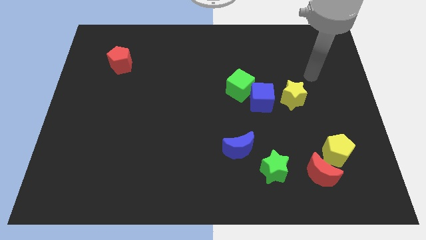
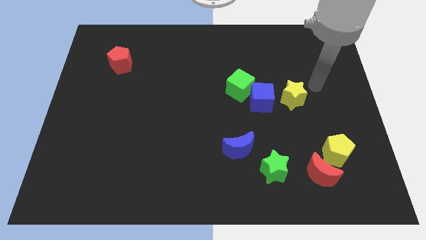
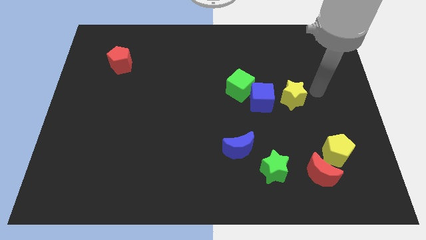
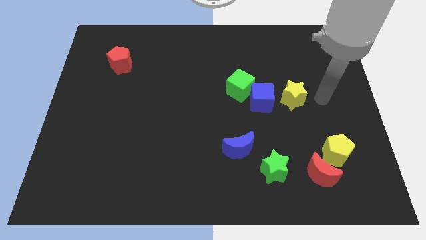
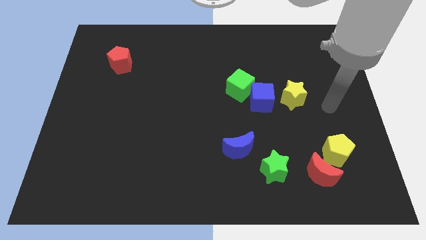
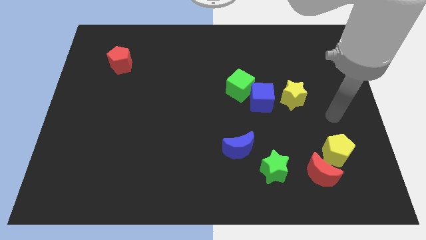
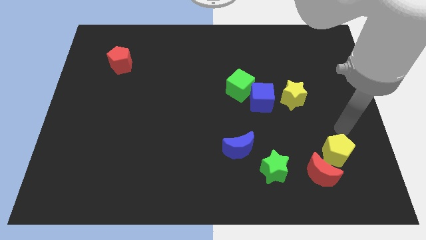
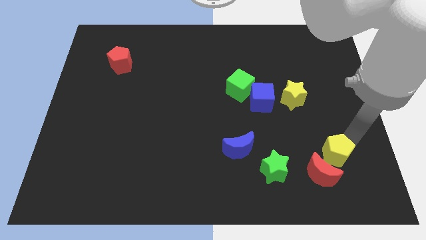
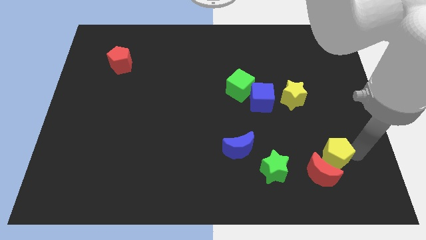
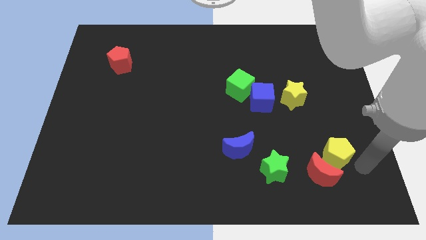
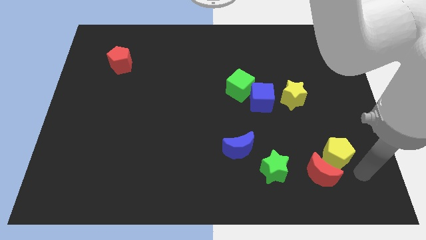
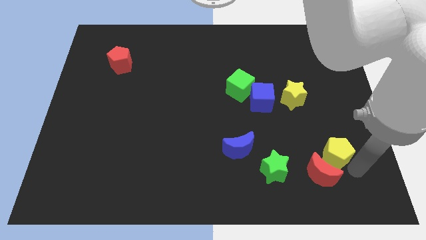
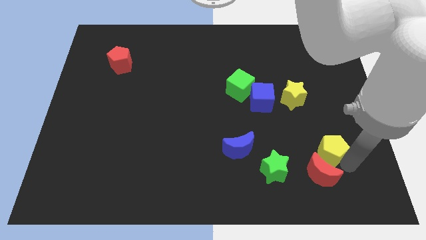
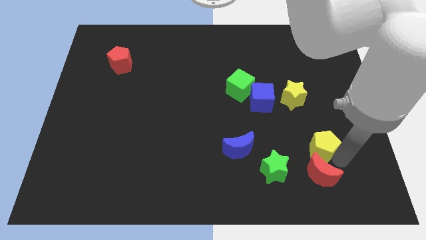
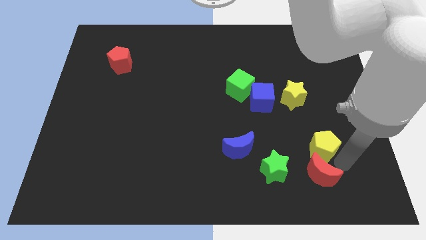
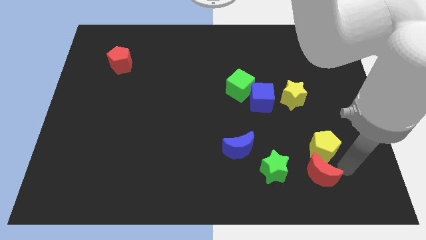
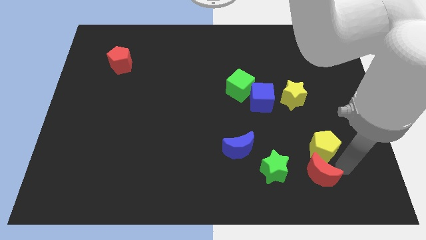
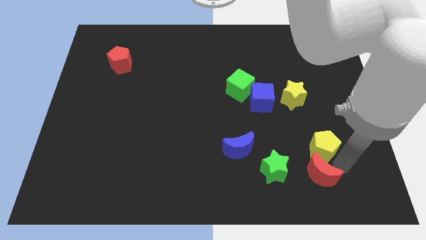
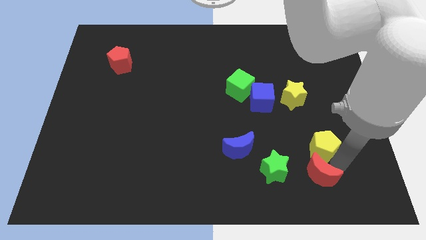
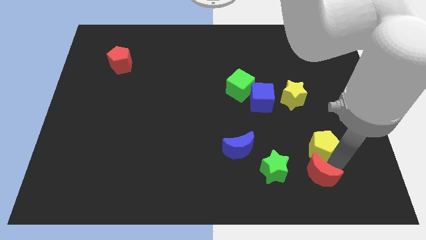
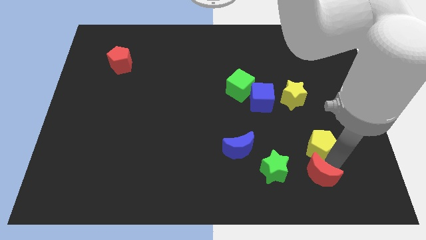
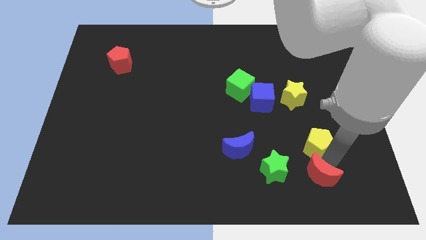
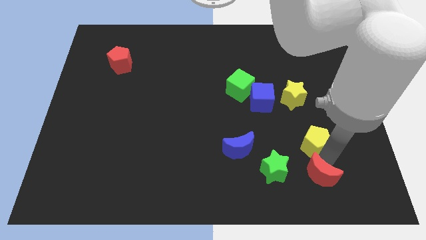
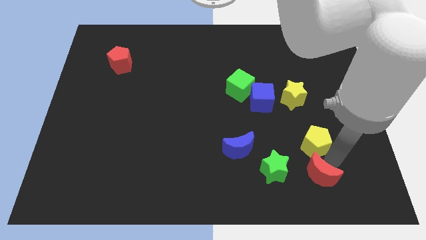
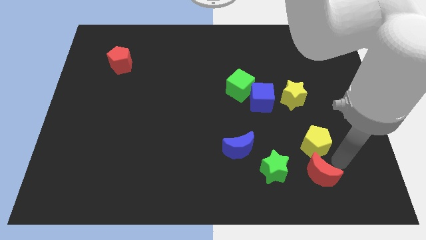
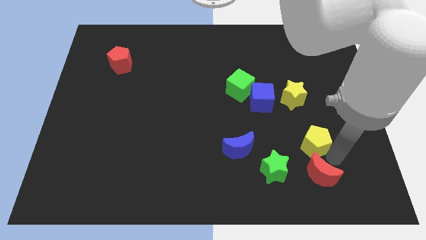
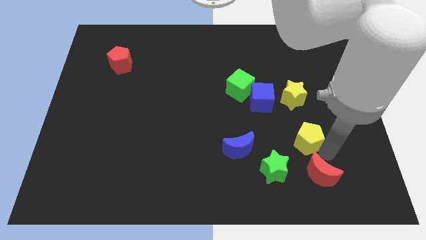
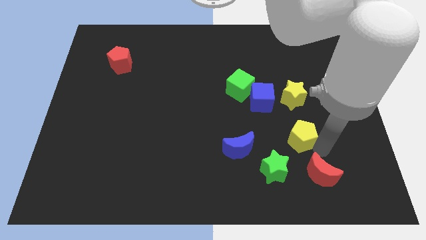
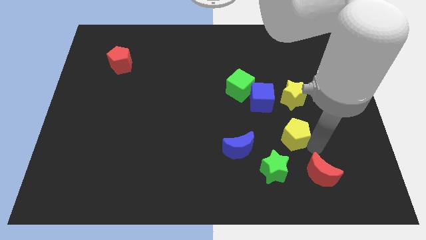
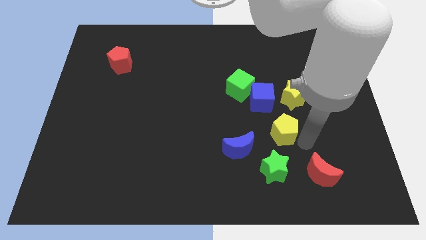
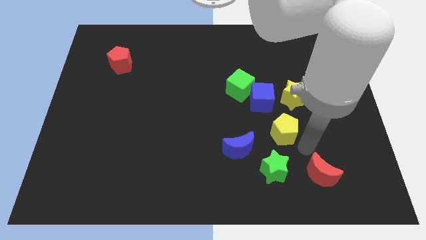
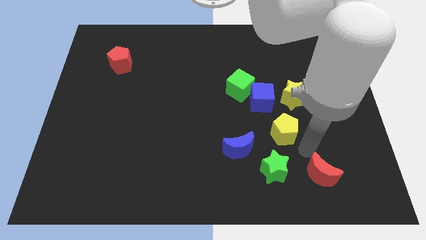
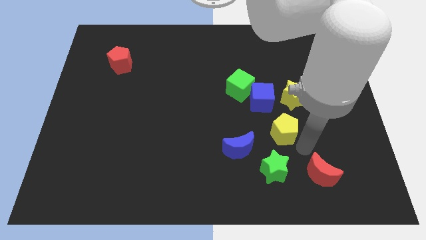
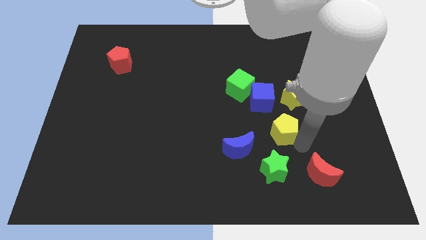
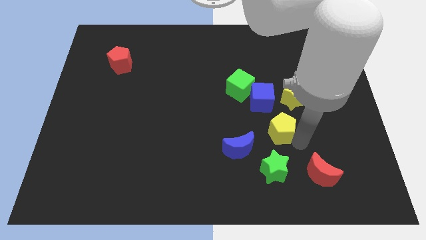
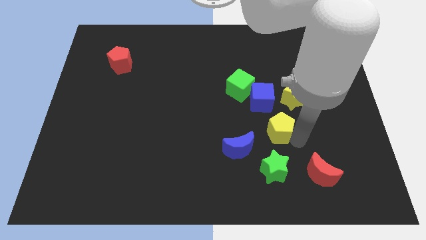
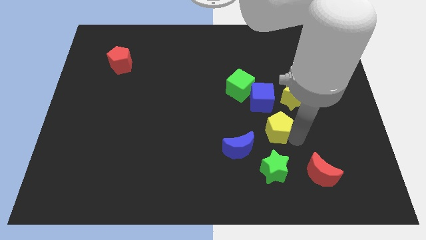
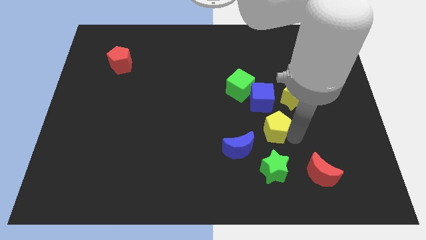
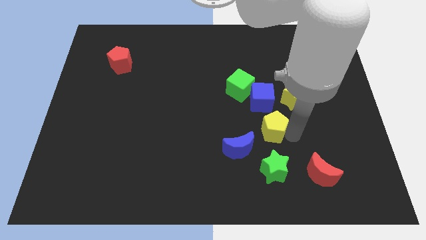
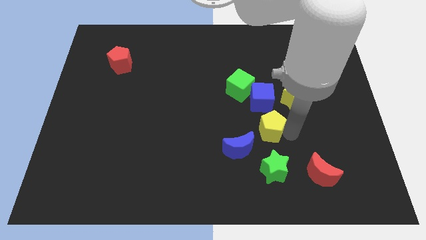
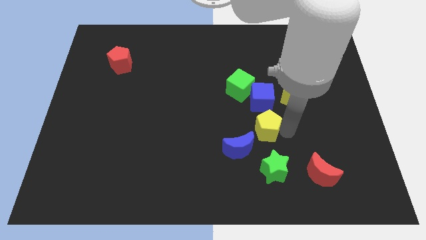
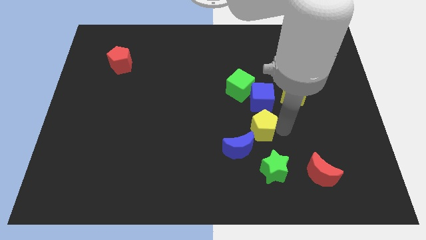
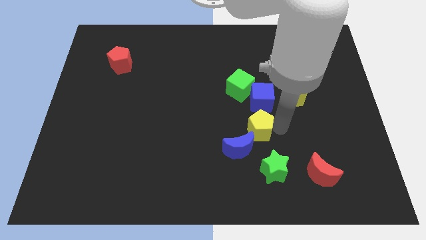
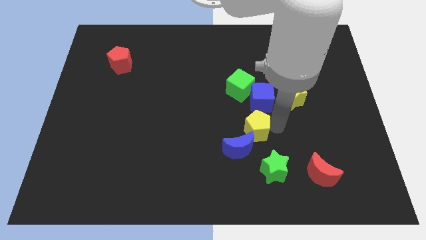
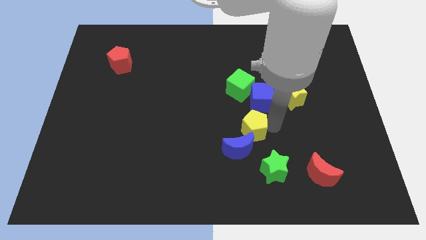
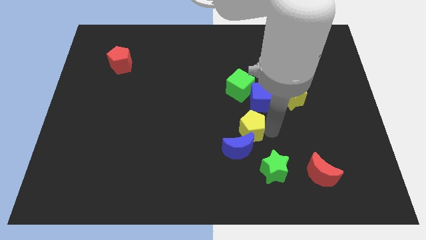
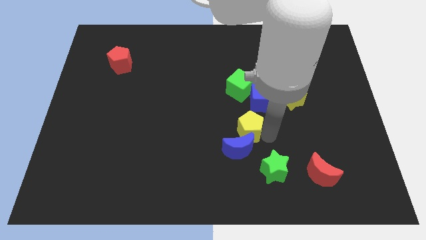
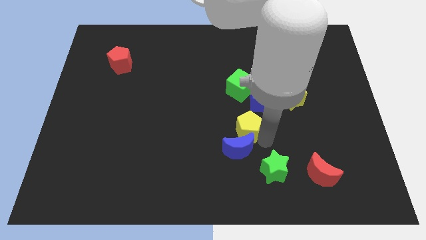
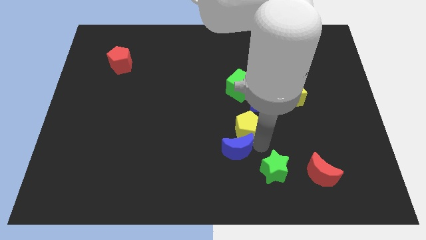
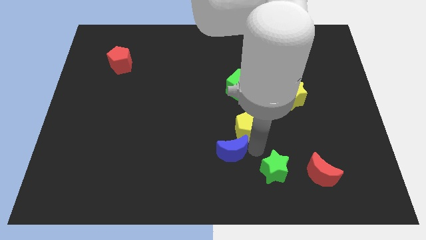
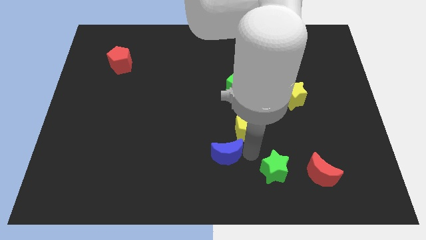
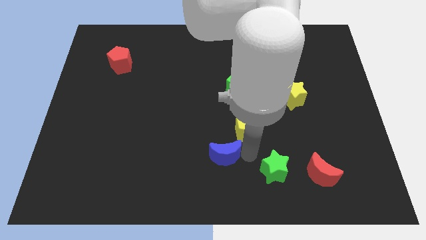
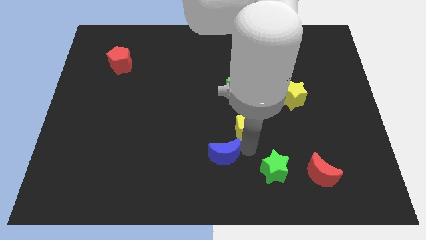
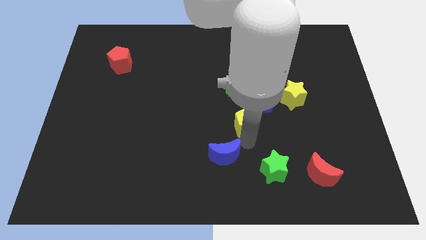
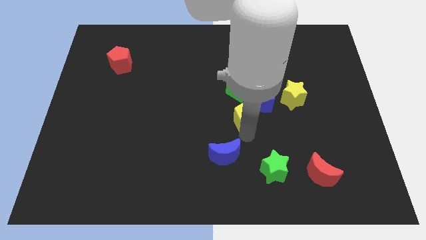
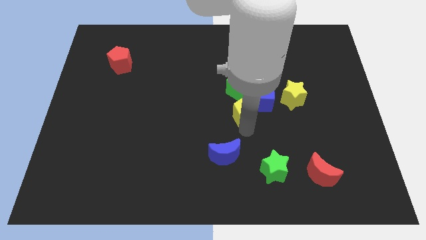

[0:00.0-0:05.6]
move the yellow pentagon left of the yellow star

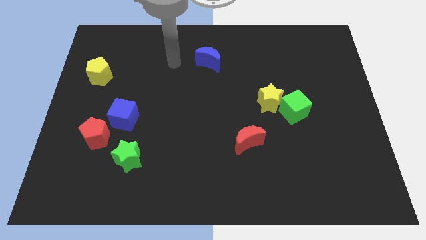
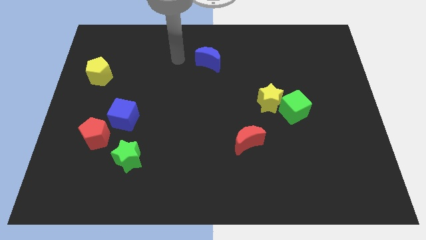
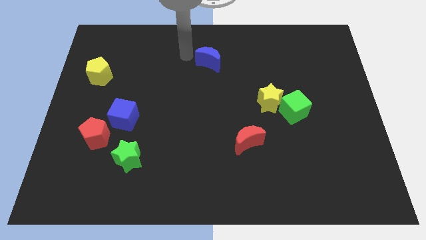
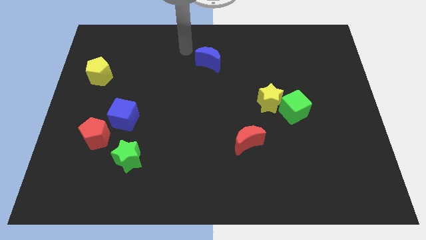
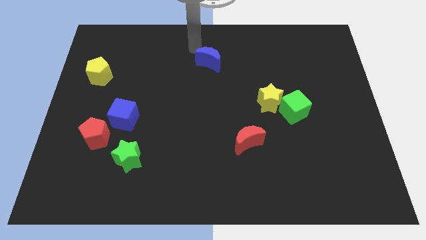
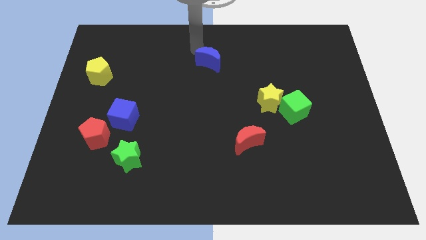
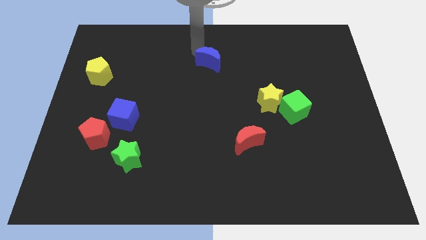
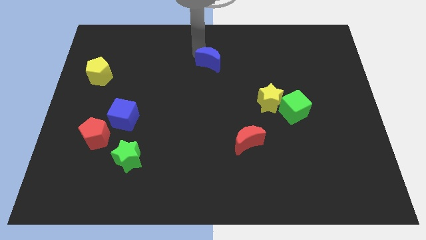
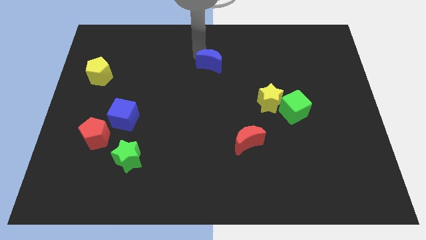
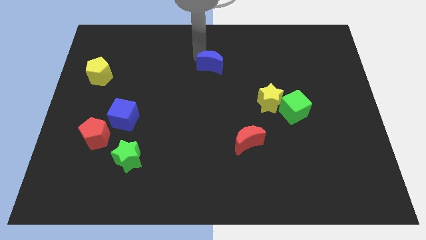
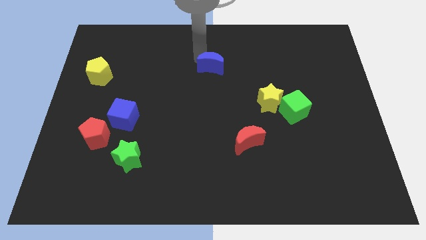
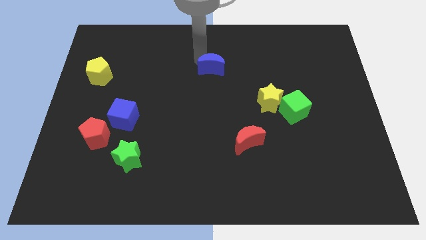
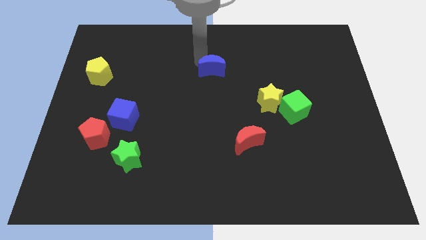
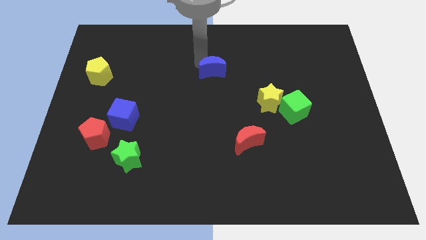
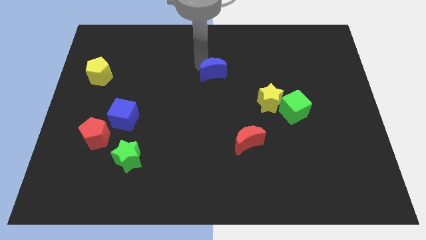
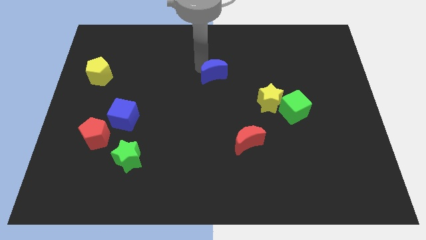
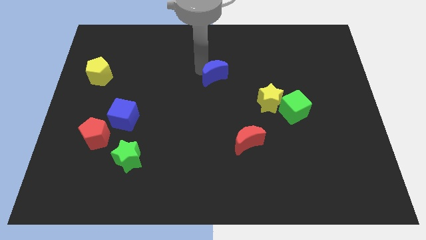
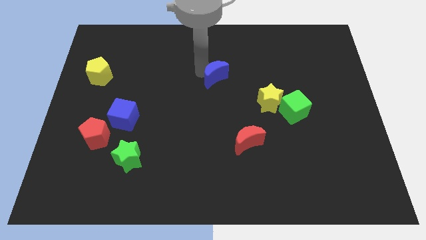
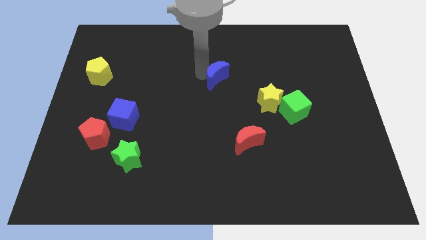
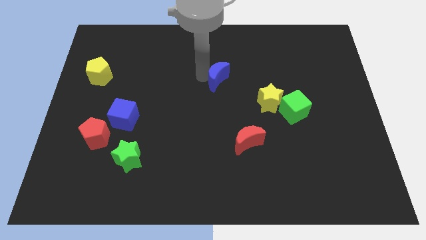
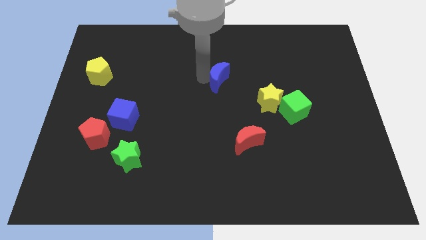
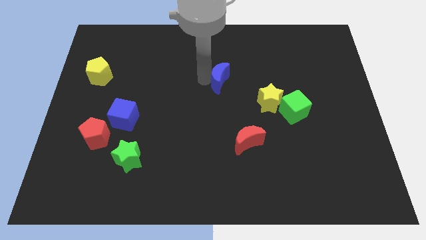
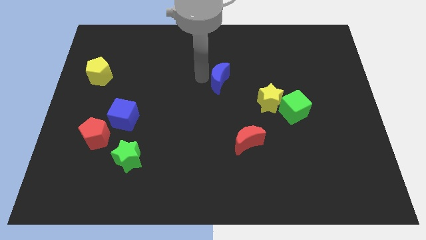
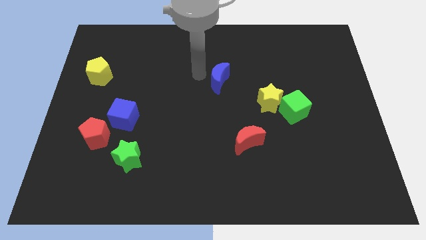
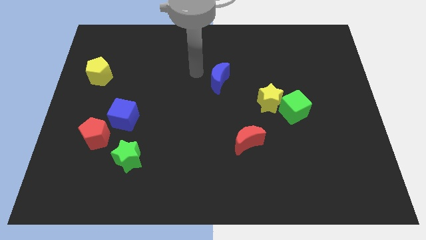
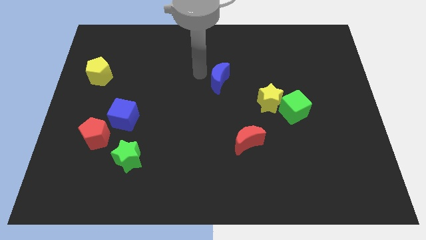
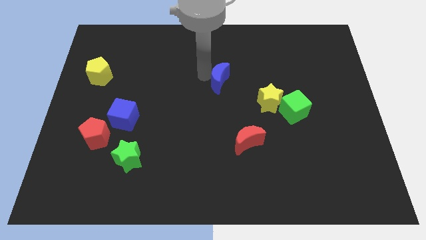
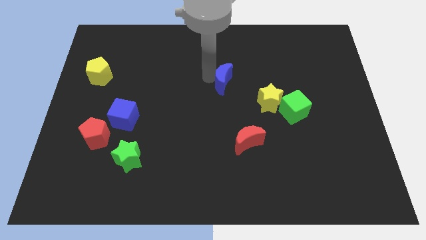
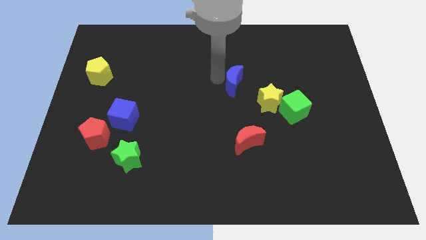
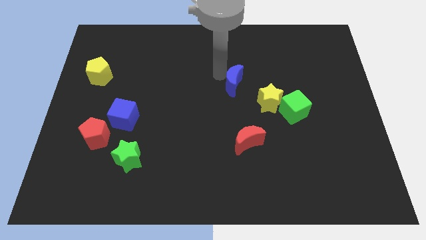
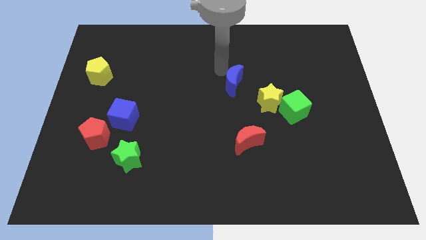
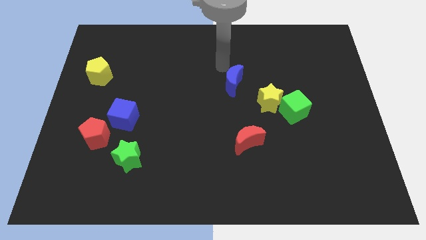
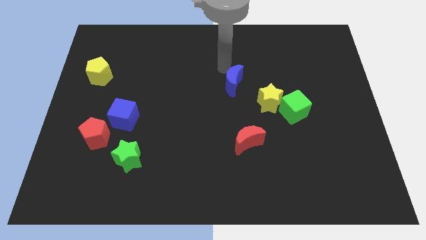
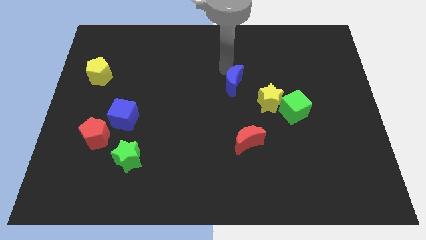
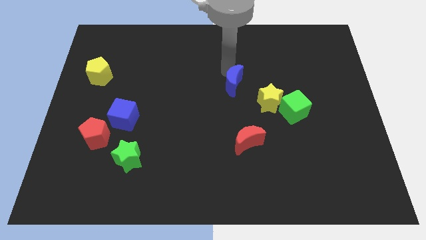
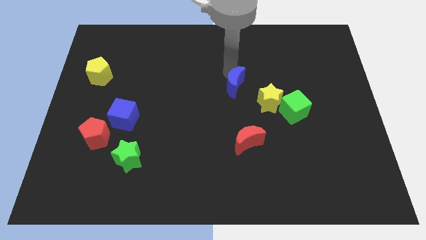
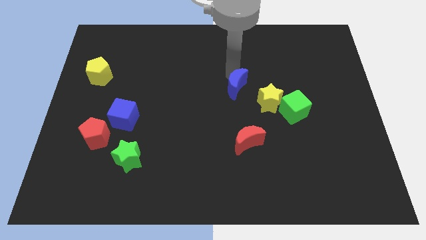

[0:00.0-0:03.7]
push the blue moon to the top of the red moon
